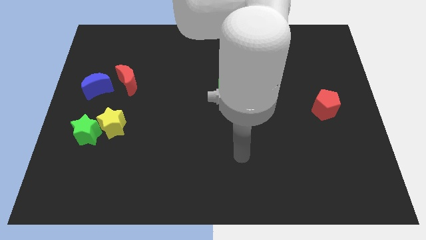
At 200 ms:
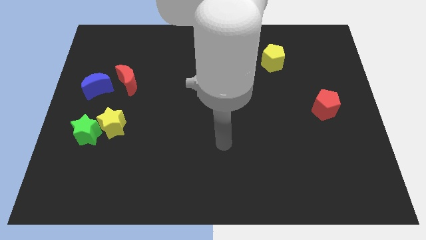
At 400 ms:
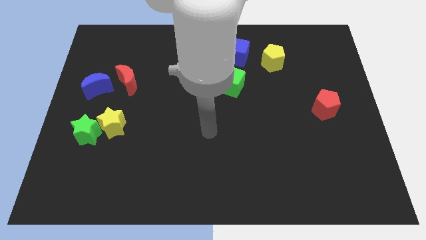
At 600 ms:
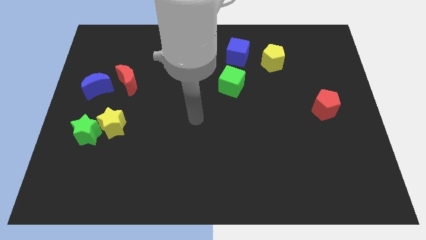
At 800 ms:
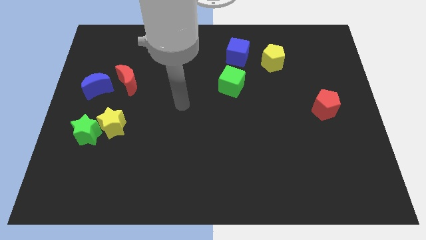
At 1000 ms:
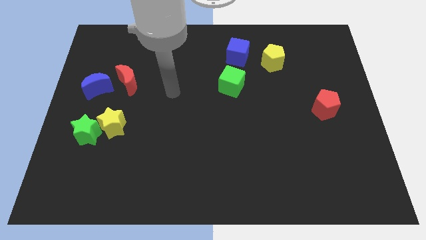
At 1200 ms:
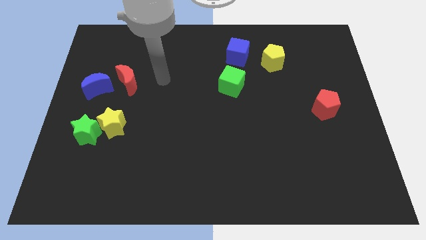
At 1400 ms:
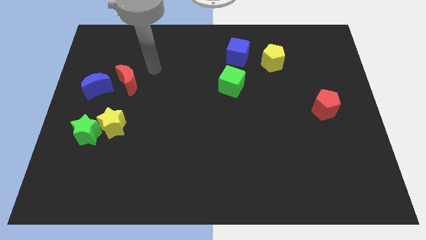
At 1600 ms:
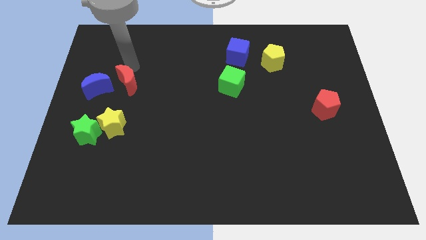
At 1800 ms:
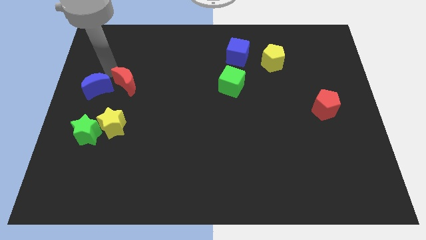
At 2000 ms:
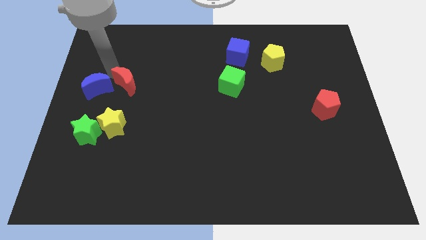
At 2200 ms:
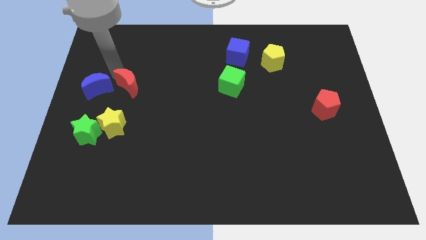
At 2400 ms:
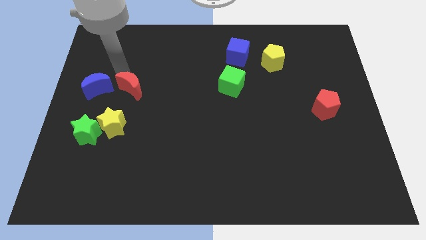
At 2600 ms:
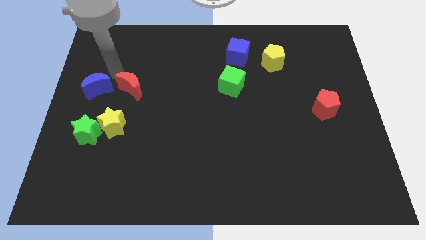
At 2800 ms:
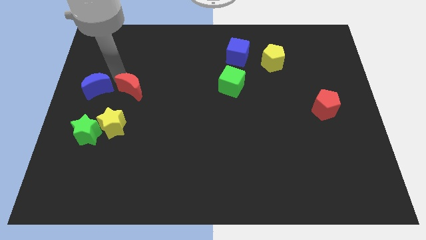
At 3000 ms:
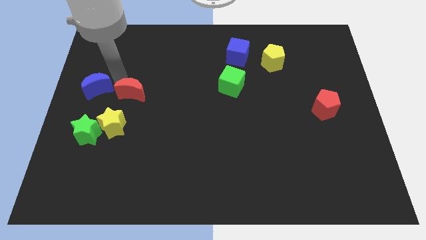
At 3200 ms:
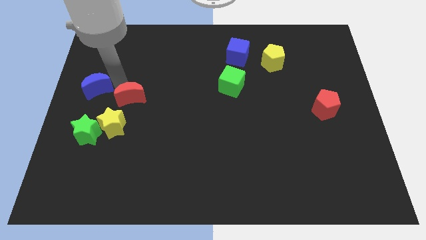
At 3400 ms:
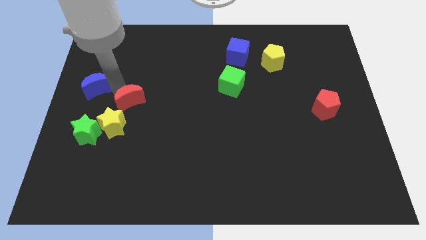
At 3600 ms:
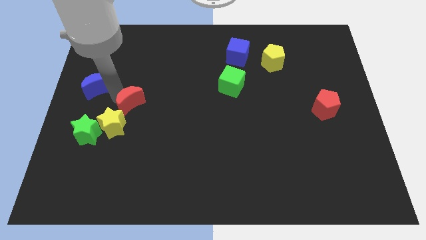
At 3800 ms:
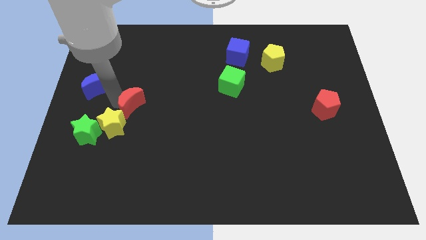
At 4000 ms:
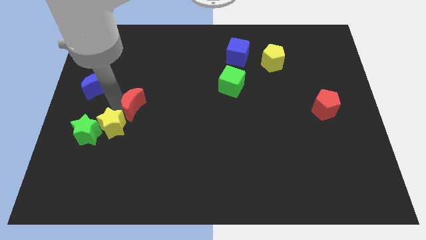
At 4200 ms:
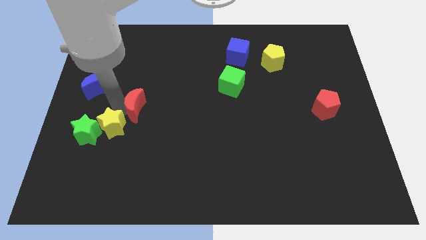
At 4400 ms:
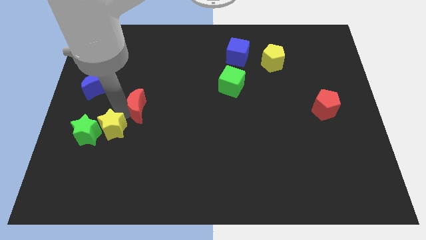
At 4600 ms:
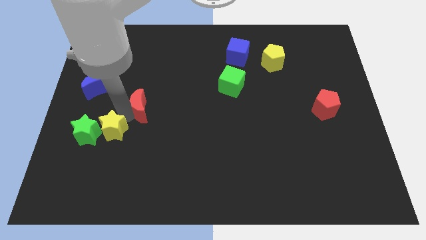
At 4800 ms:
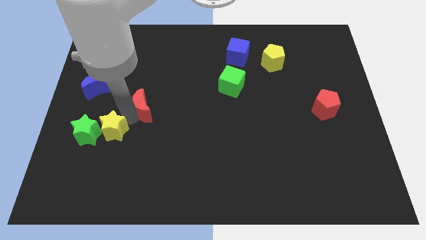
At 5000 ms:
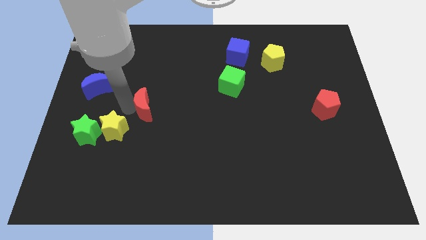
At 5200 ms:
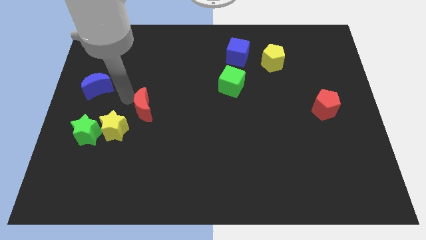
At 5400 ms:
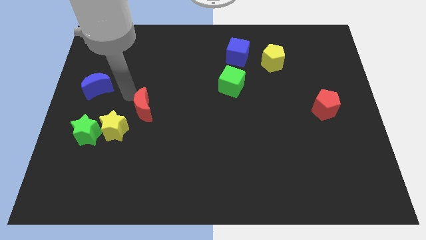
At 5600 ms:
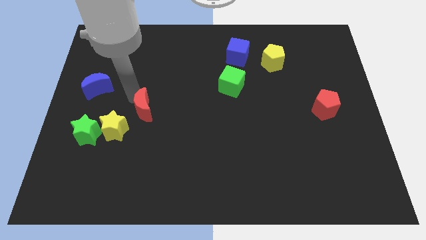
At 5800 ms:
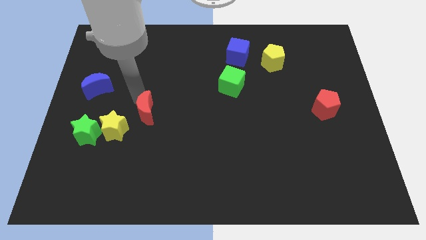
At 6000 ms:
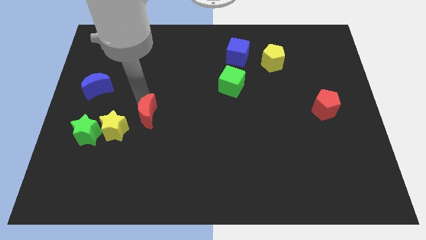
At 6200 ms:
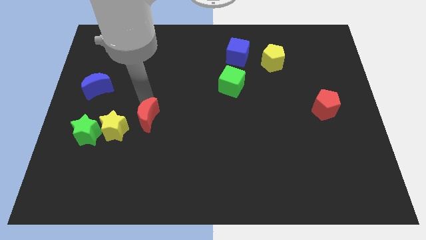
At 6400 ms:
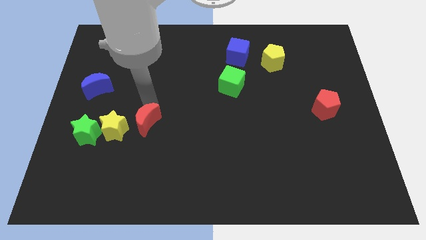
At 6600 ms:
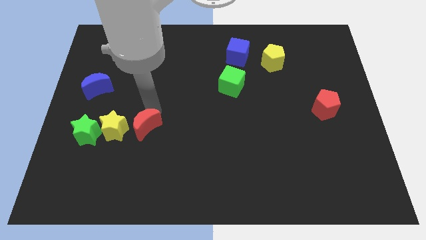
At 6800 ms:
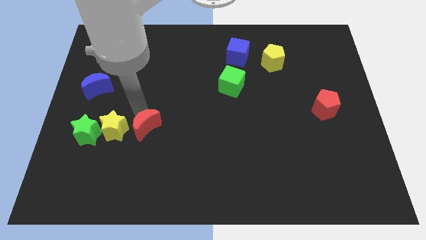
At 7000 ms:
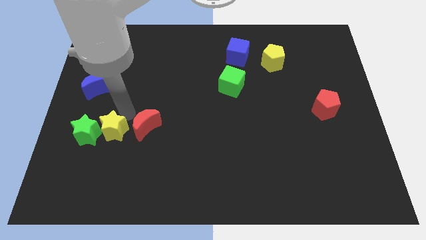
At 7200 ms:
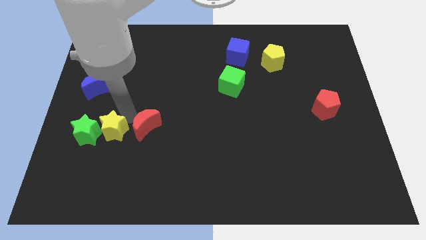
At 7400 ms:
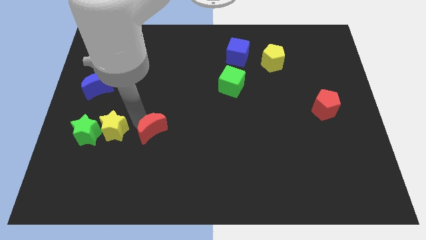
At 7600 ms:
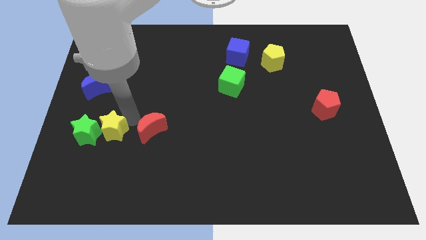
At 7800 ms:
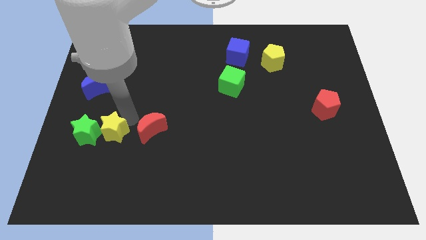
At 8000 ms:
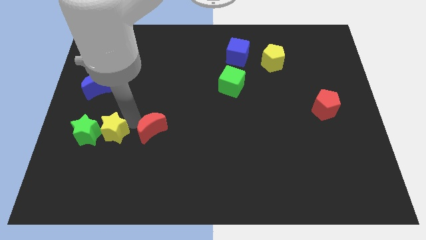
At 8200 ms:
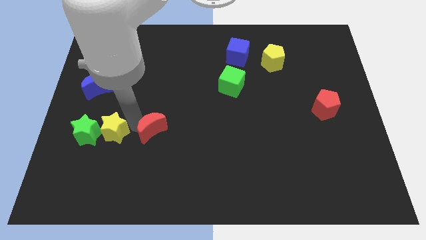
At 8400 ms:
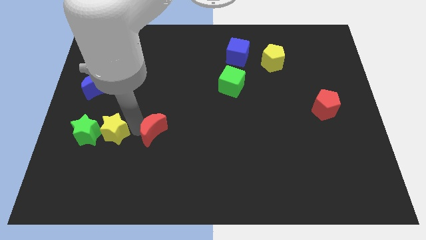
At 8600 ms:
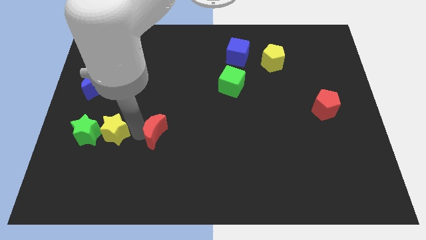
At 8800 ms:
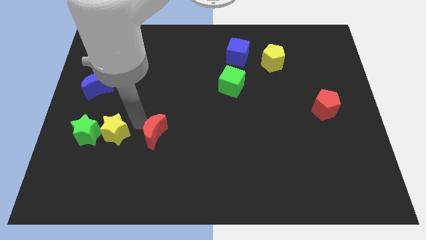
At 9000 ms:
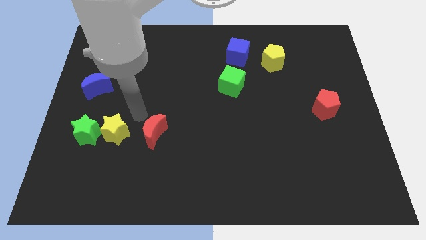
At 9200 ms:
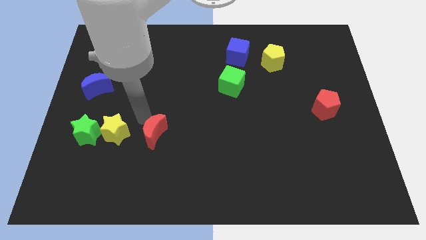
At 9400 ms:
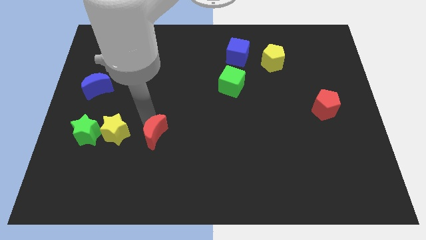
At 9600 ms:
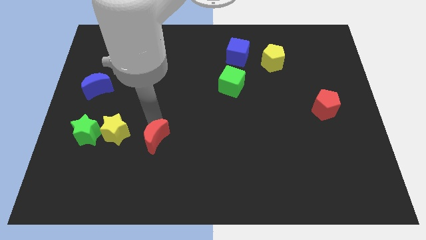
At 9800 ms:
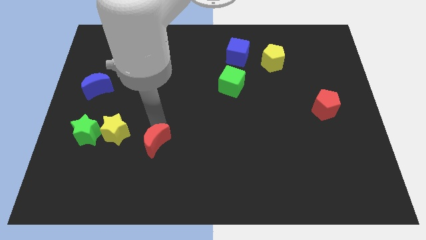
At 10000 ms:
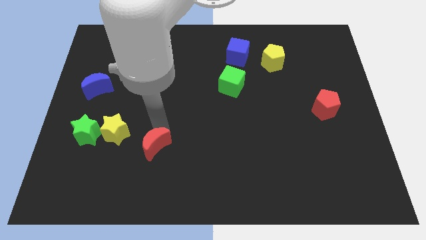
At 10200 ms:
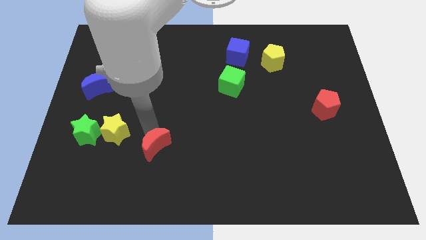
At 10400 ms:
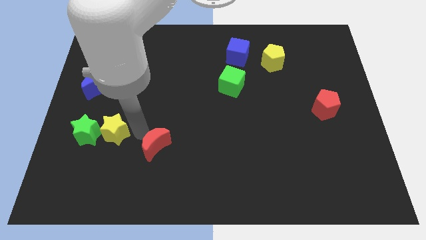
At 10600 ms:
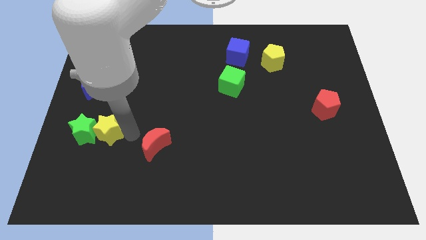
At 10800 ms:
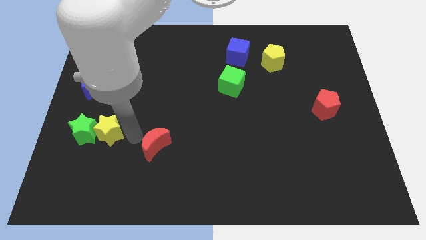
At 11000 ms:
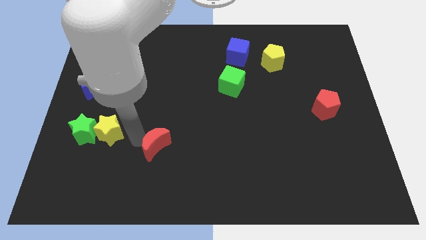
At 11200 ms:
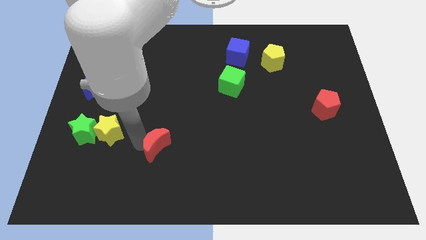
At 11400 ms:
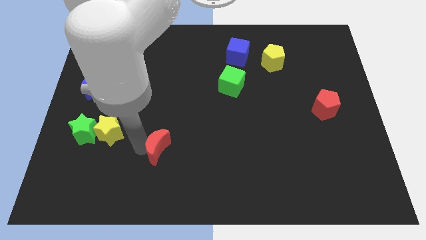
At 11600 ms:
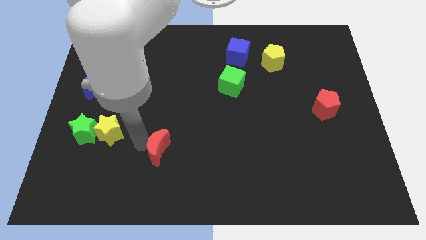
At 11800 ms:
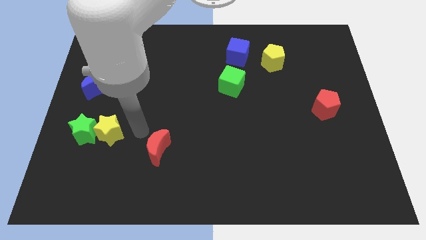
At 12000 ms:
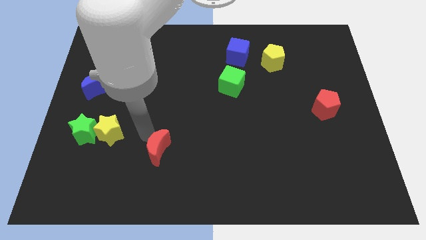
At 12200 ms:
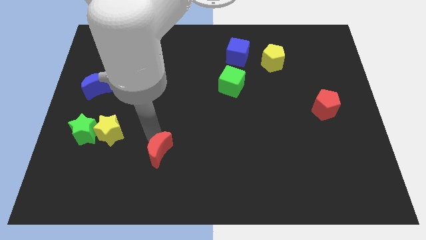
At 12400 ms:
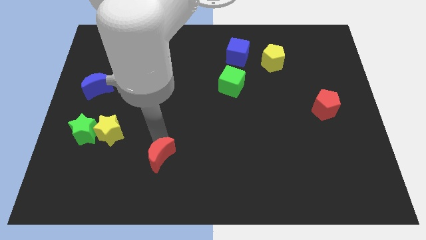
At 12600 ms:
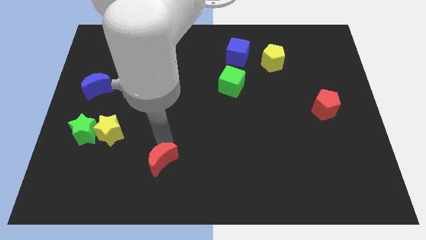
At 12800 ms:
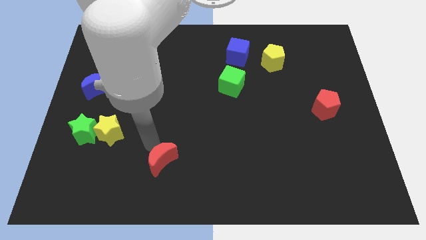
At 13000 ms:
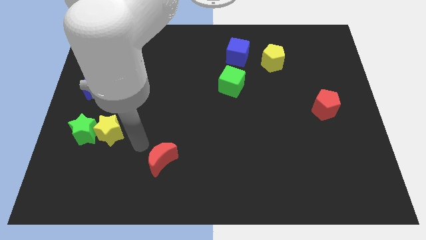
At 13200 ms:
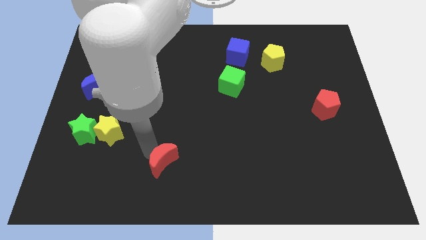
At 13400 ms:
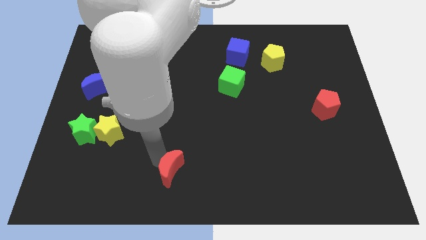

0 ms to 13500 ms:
put the red moon to the bottom
